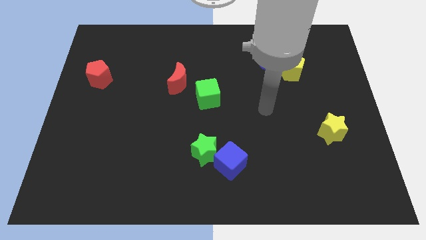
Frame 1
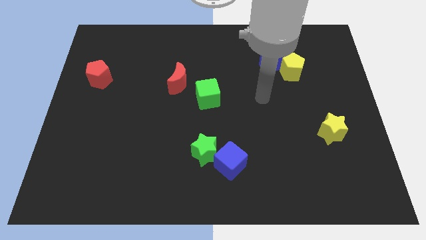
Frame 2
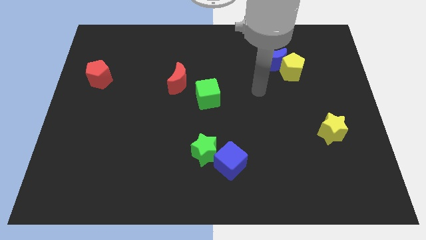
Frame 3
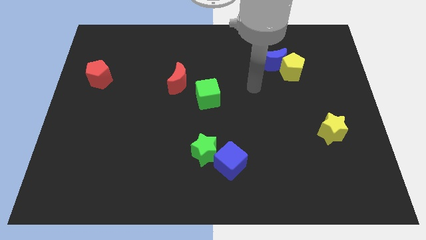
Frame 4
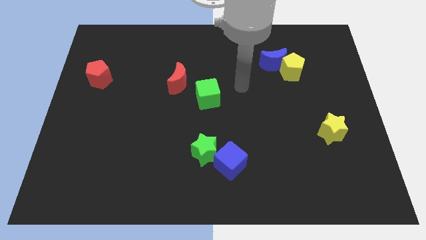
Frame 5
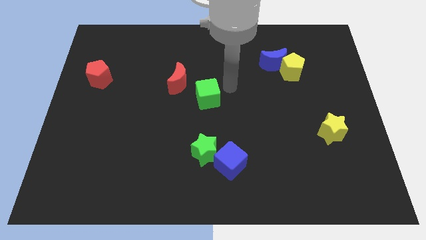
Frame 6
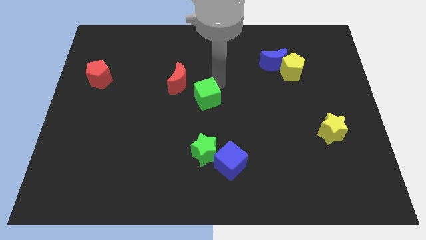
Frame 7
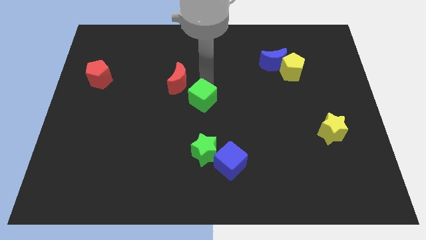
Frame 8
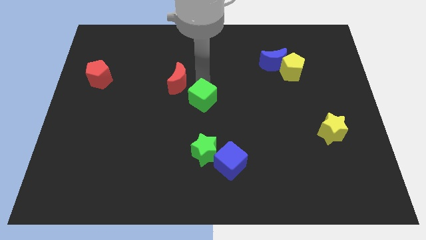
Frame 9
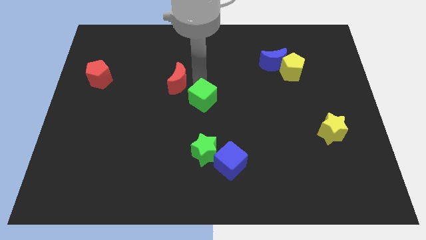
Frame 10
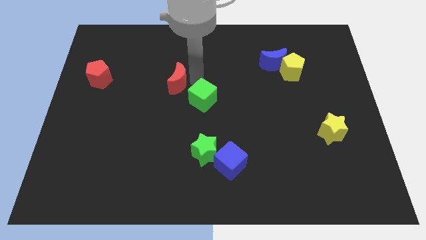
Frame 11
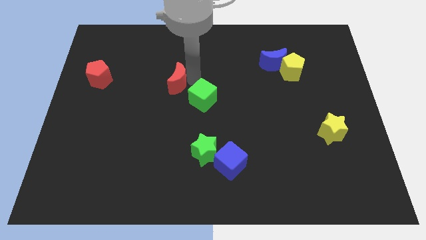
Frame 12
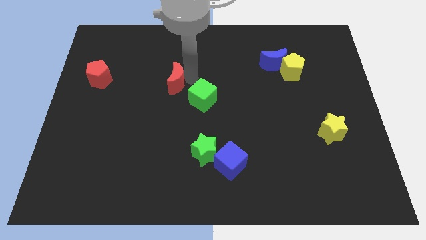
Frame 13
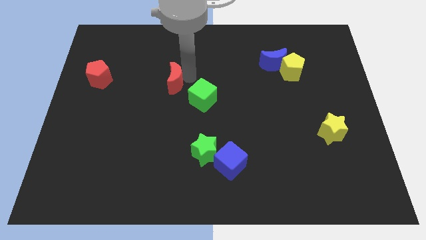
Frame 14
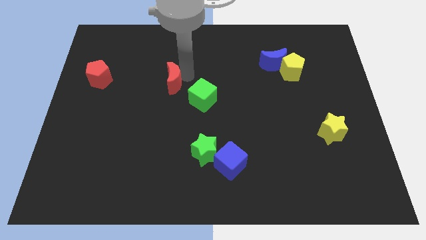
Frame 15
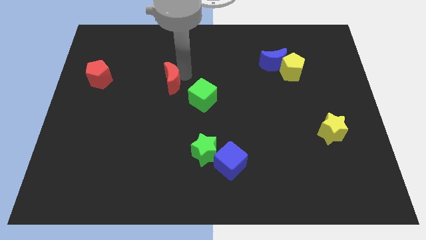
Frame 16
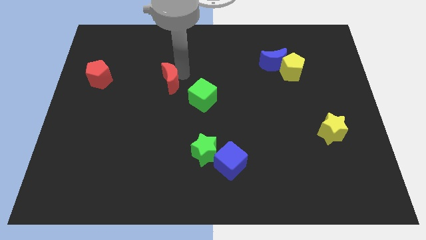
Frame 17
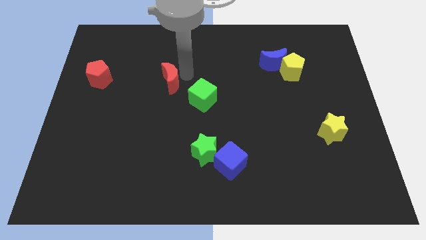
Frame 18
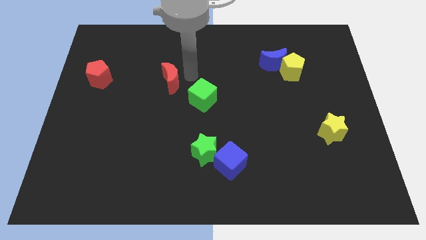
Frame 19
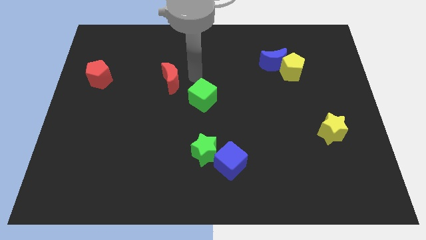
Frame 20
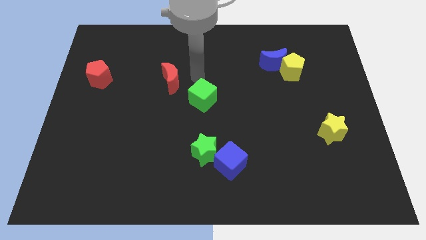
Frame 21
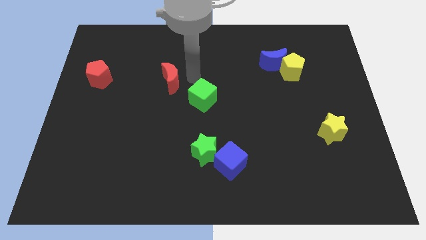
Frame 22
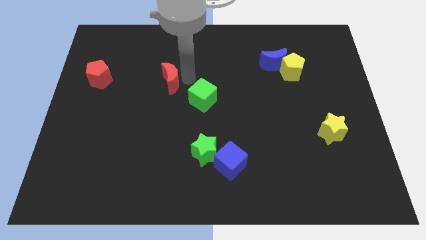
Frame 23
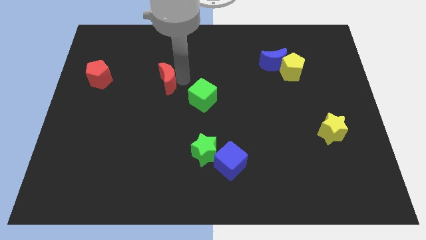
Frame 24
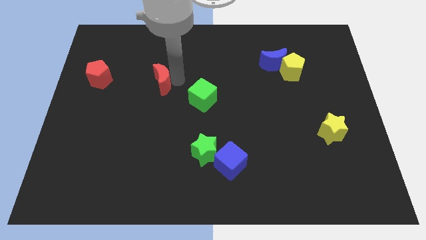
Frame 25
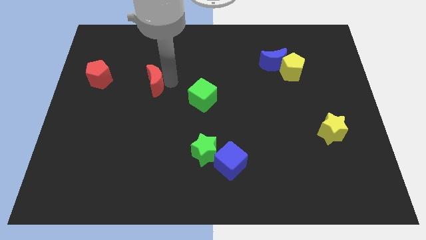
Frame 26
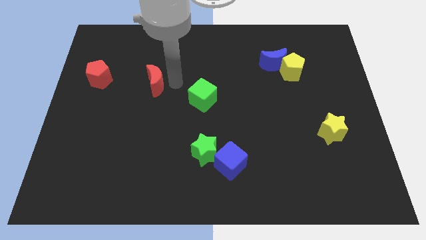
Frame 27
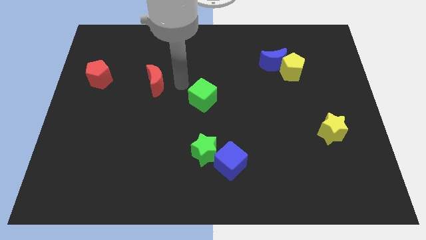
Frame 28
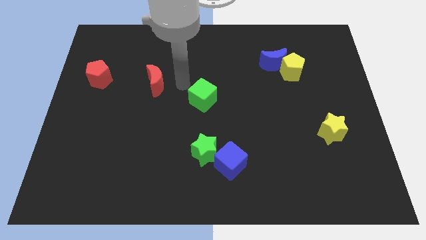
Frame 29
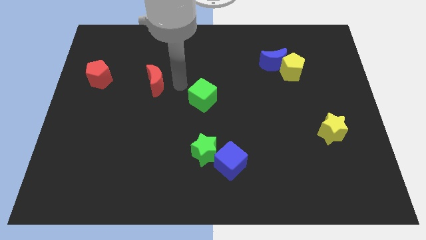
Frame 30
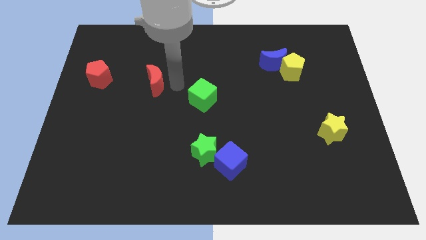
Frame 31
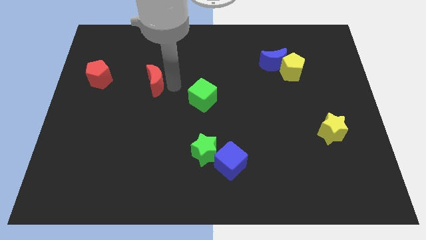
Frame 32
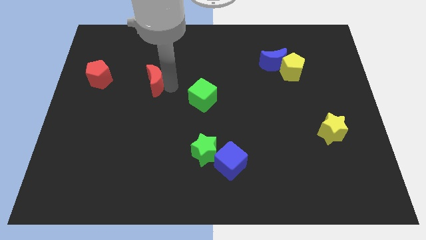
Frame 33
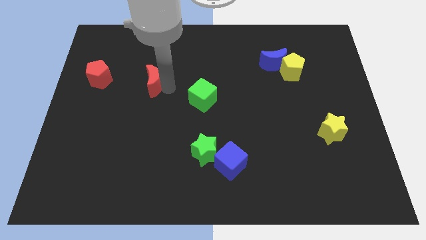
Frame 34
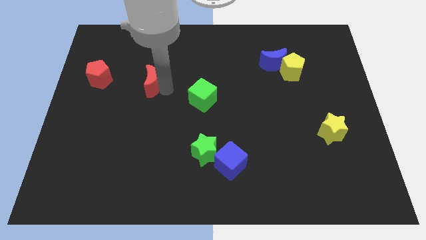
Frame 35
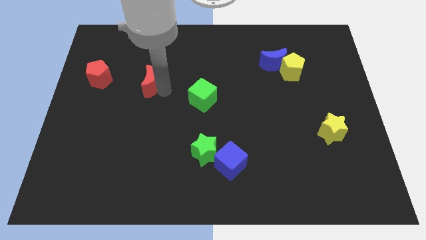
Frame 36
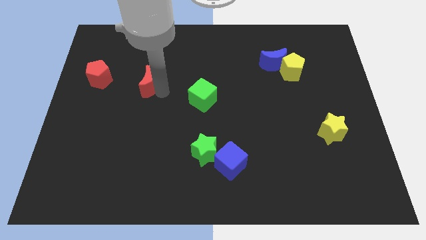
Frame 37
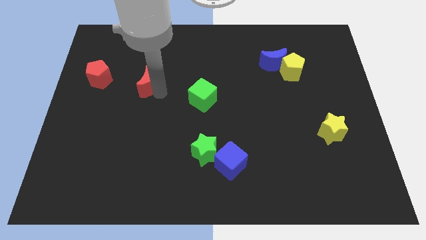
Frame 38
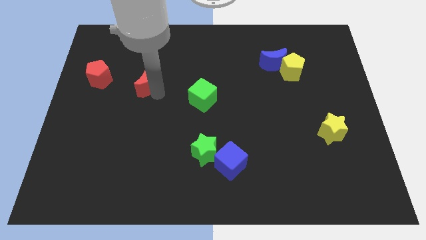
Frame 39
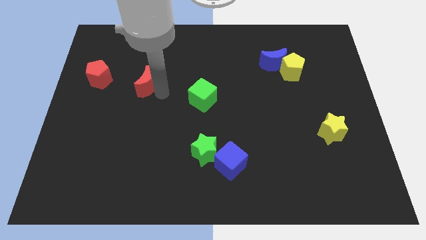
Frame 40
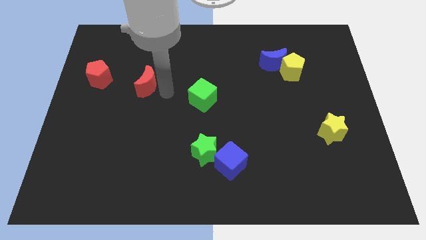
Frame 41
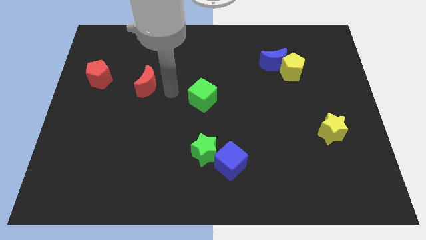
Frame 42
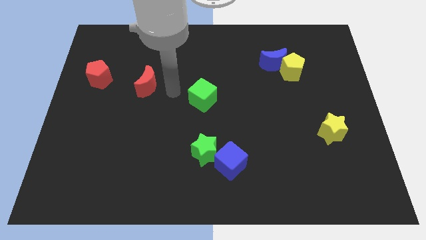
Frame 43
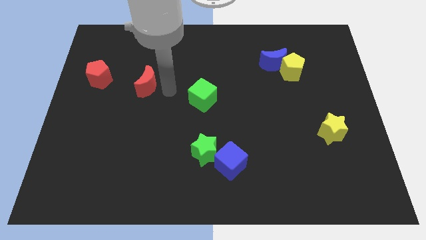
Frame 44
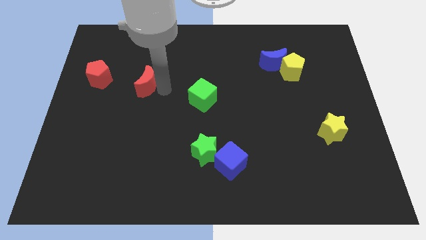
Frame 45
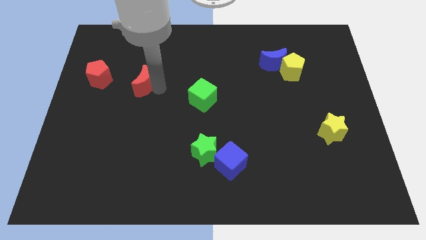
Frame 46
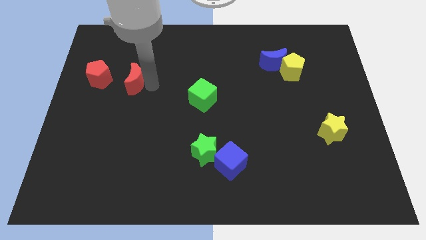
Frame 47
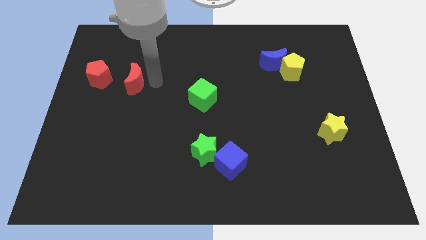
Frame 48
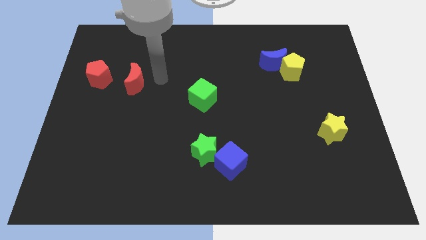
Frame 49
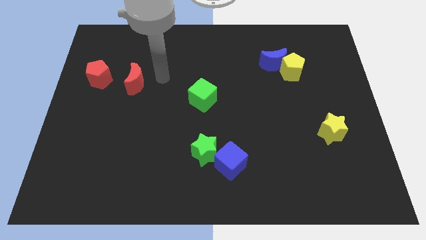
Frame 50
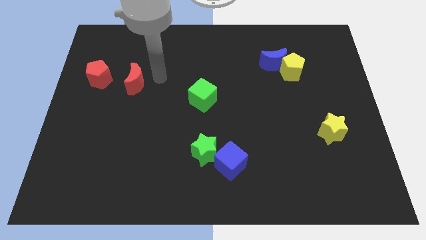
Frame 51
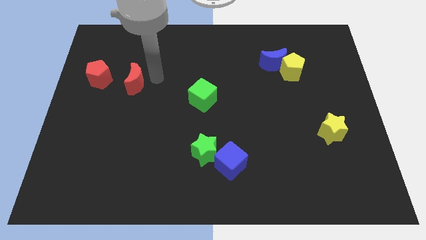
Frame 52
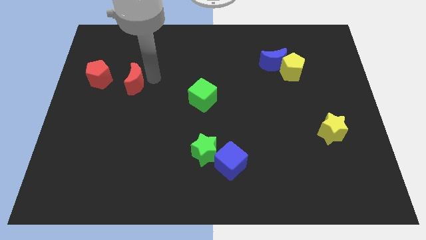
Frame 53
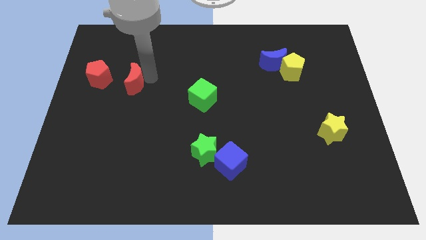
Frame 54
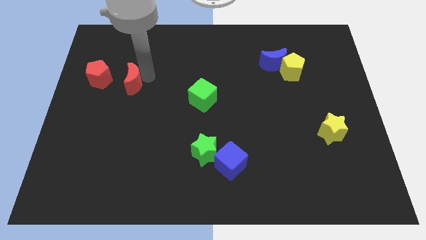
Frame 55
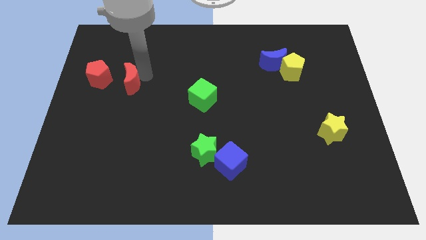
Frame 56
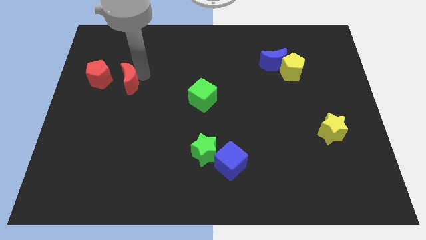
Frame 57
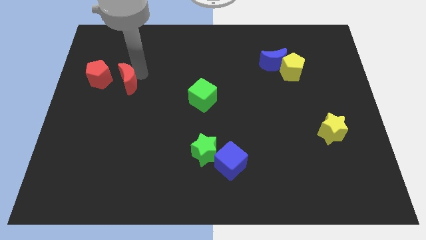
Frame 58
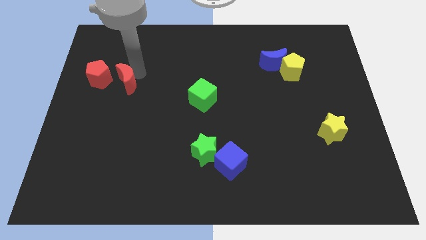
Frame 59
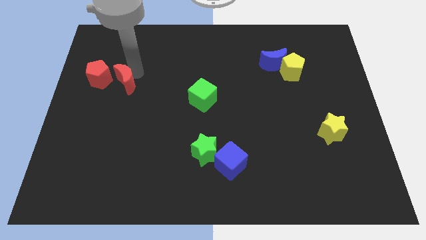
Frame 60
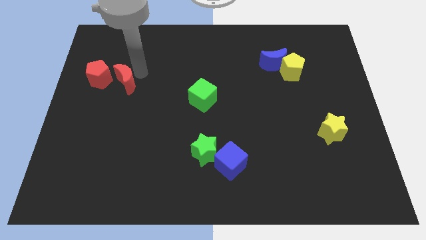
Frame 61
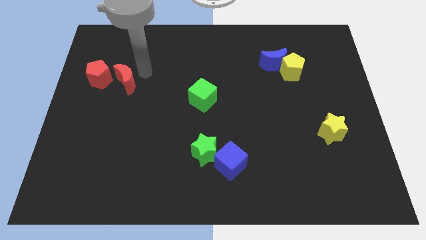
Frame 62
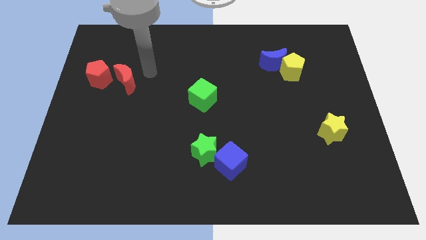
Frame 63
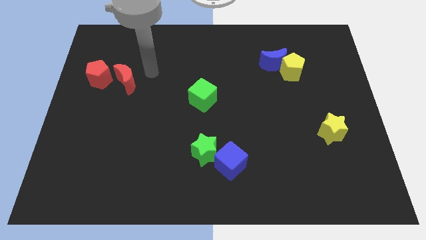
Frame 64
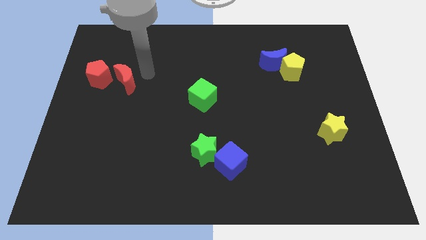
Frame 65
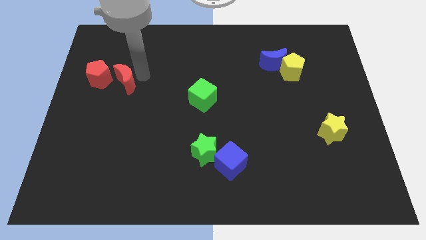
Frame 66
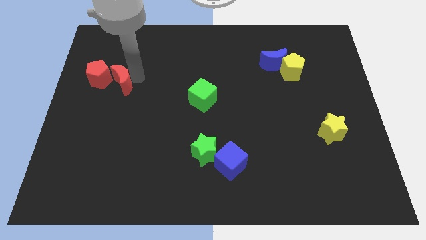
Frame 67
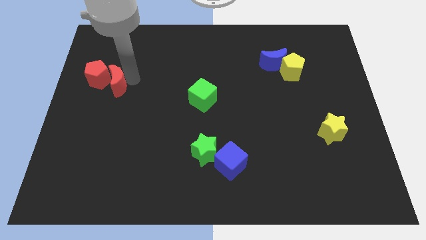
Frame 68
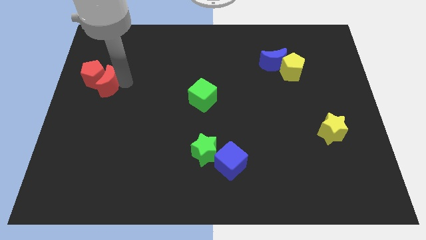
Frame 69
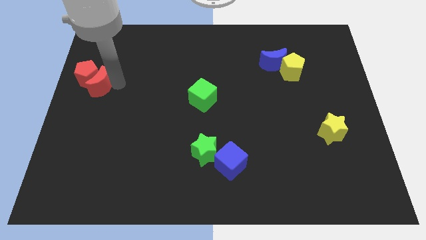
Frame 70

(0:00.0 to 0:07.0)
slide the red moon to the left side
